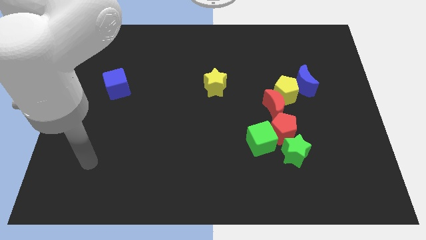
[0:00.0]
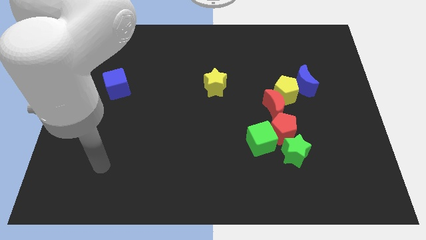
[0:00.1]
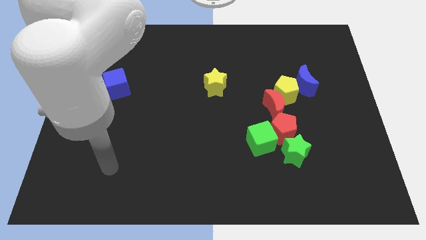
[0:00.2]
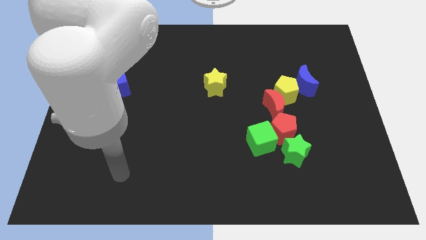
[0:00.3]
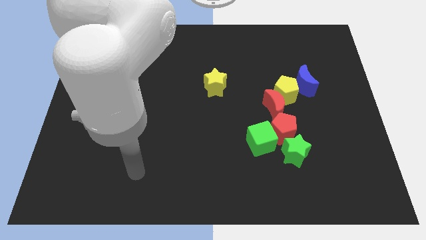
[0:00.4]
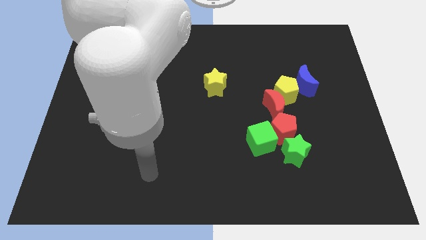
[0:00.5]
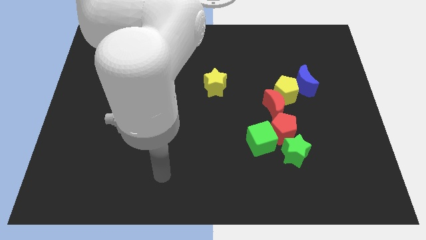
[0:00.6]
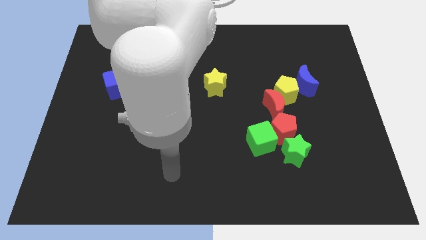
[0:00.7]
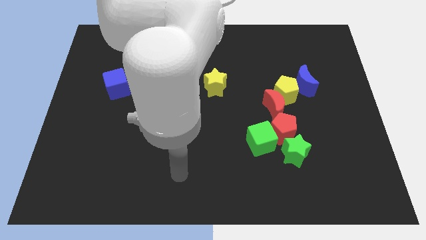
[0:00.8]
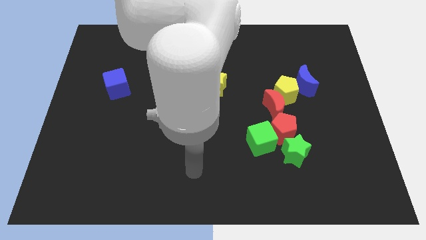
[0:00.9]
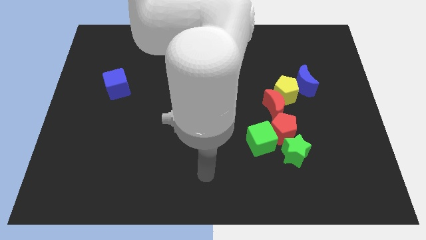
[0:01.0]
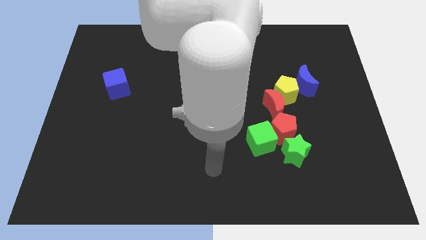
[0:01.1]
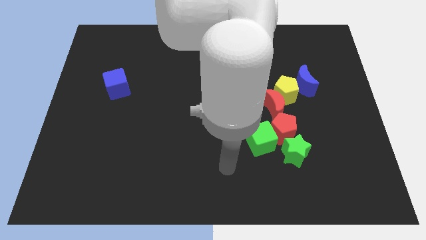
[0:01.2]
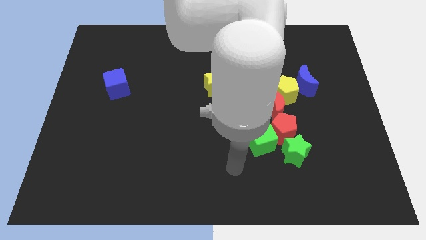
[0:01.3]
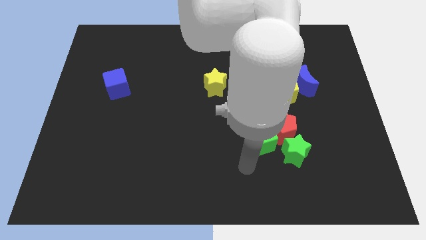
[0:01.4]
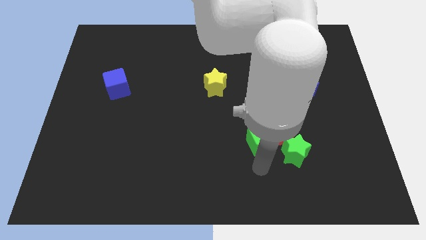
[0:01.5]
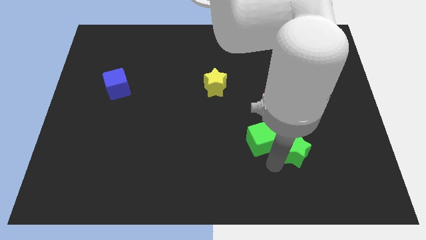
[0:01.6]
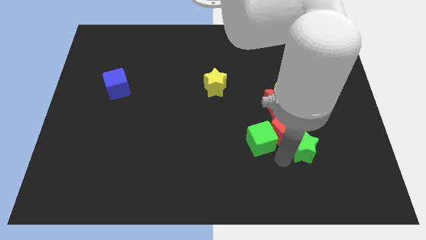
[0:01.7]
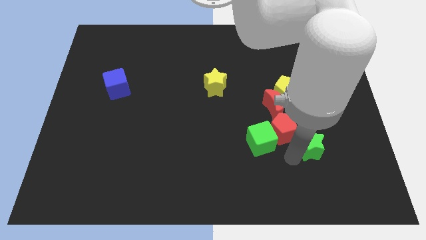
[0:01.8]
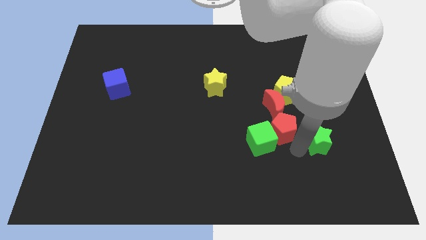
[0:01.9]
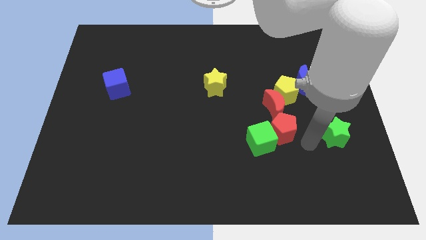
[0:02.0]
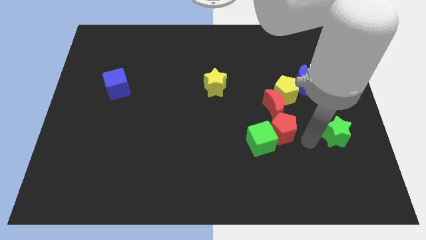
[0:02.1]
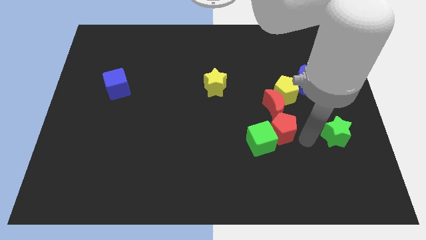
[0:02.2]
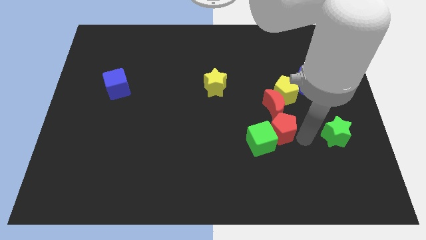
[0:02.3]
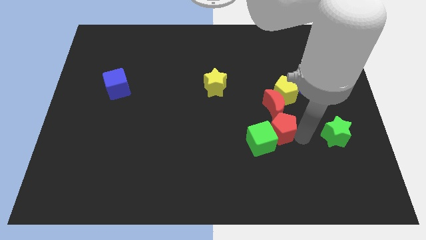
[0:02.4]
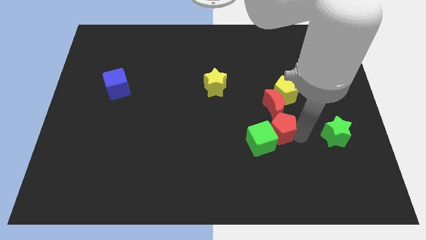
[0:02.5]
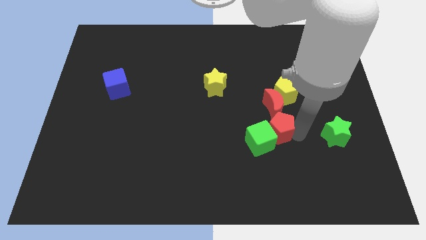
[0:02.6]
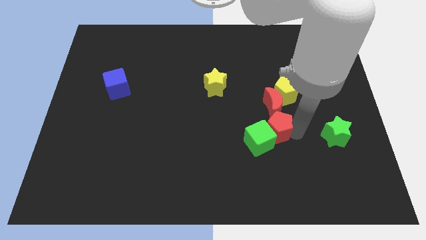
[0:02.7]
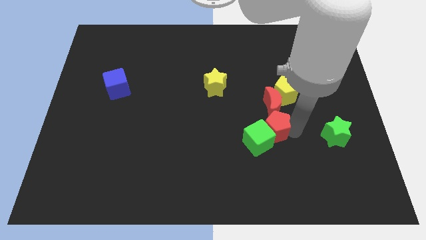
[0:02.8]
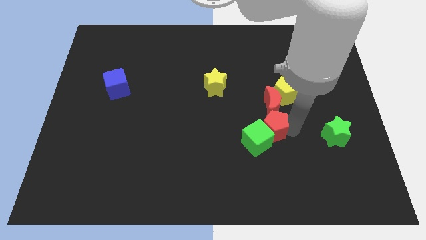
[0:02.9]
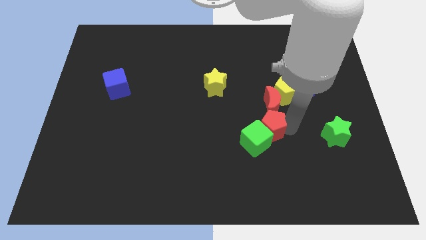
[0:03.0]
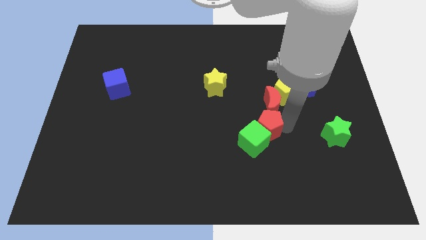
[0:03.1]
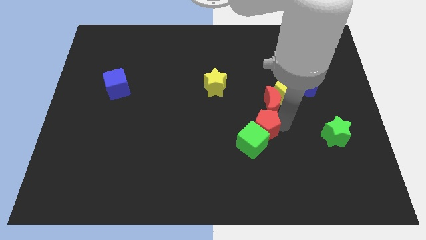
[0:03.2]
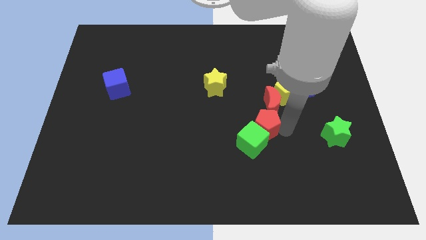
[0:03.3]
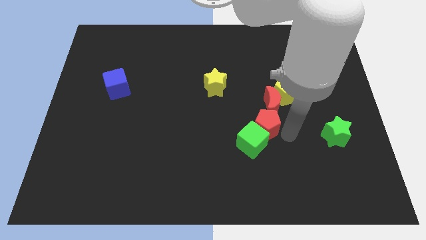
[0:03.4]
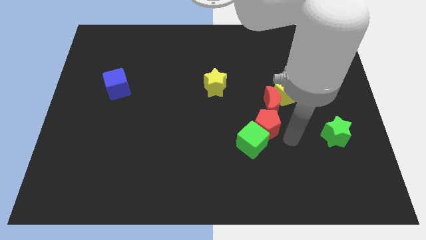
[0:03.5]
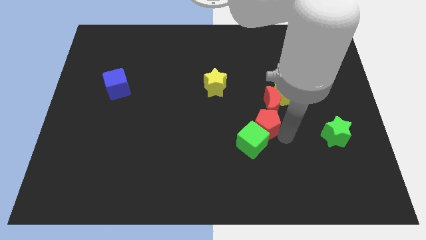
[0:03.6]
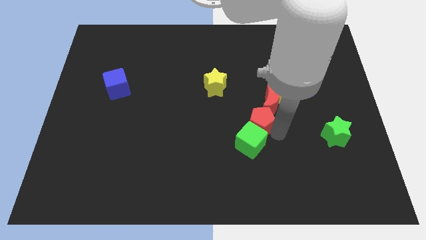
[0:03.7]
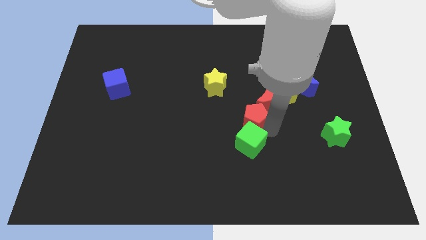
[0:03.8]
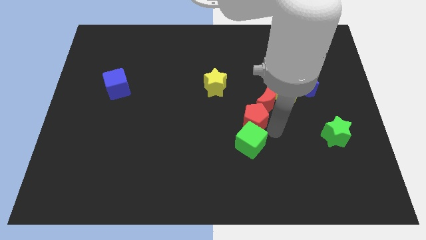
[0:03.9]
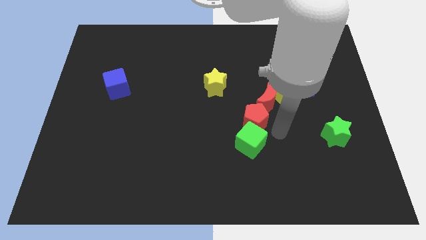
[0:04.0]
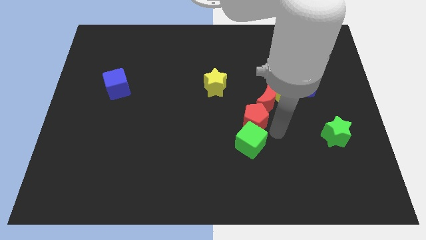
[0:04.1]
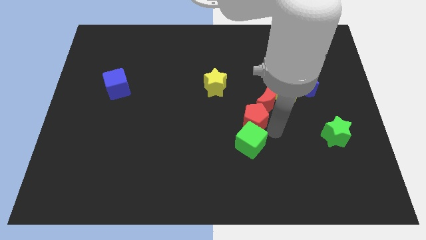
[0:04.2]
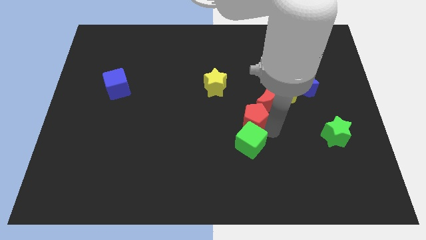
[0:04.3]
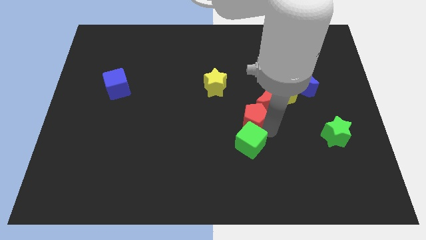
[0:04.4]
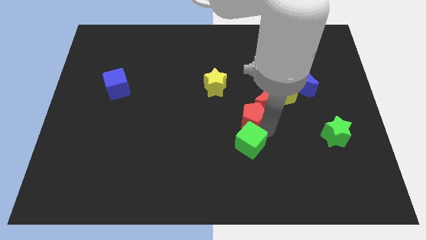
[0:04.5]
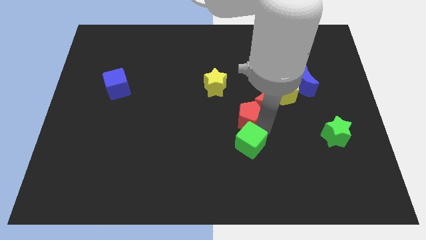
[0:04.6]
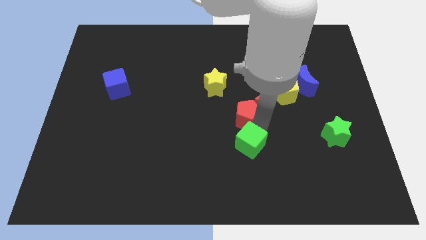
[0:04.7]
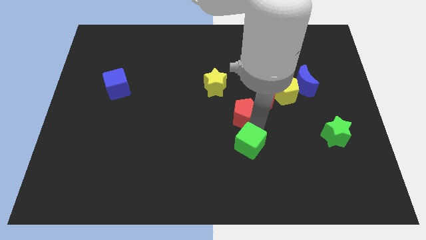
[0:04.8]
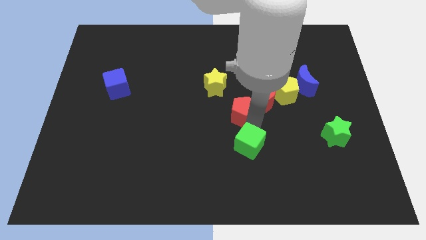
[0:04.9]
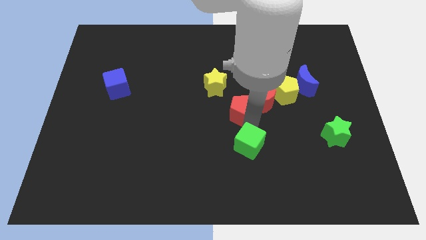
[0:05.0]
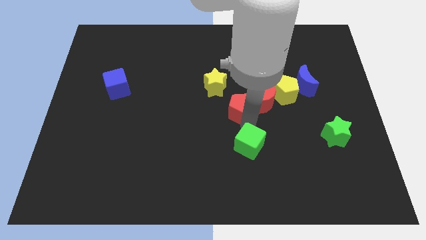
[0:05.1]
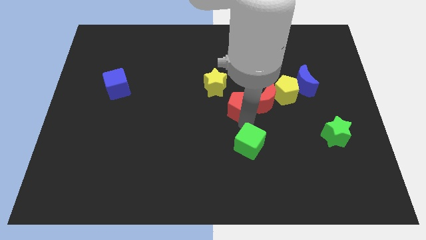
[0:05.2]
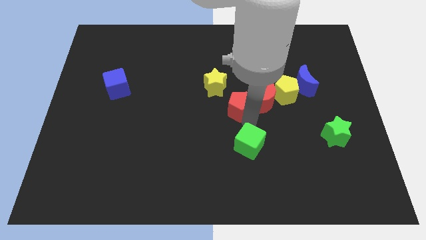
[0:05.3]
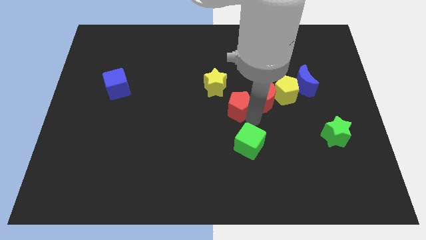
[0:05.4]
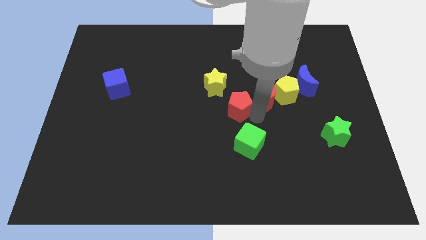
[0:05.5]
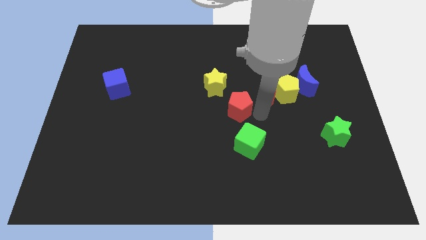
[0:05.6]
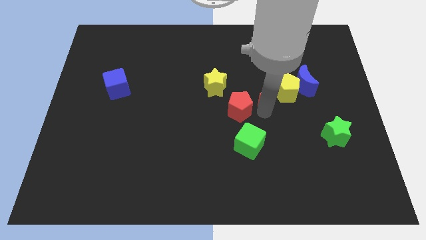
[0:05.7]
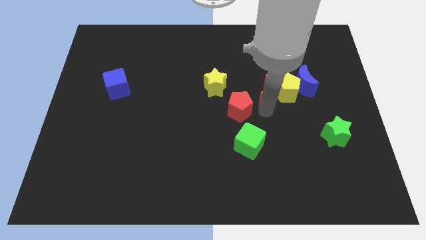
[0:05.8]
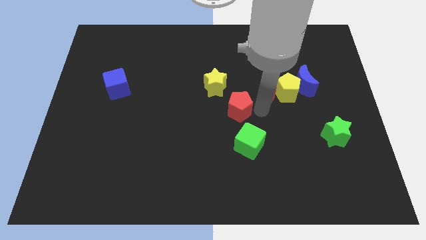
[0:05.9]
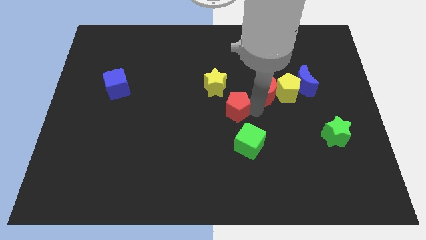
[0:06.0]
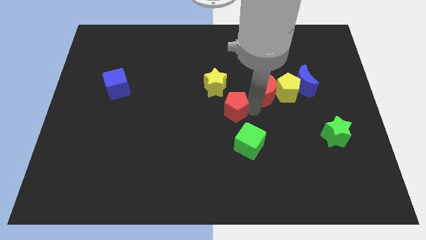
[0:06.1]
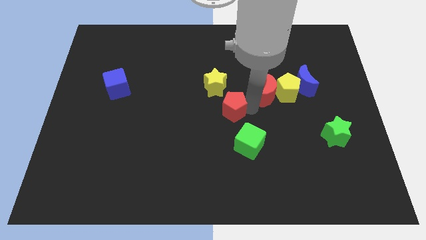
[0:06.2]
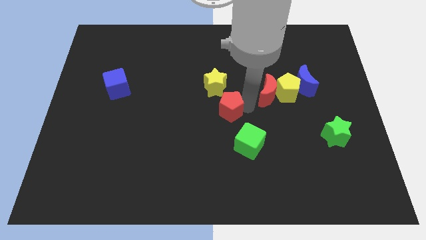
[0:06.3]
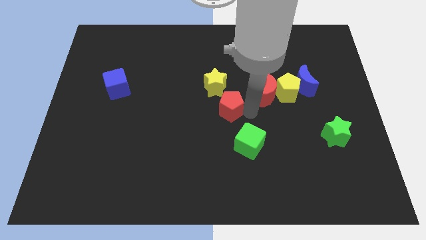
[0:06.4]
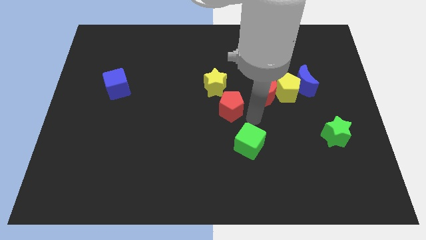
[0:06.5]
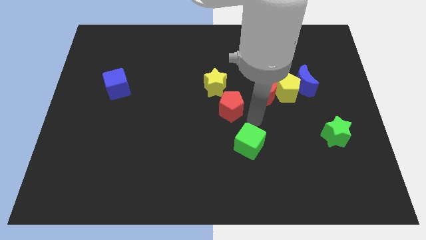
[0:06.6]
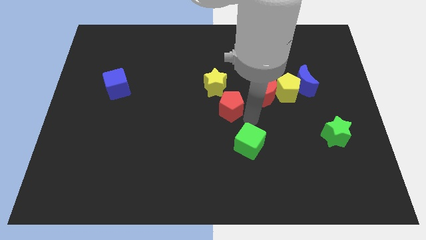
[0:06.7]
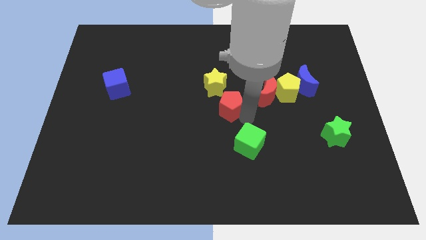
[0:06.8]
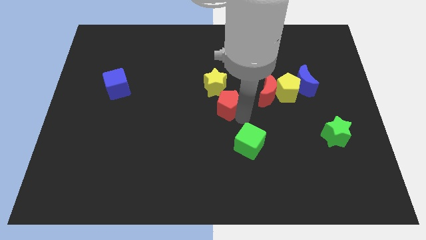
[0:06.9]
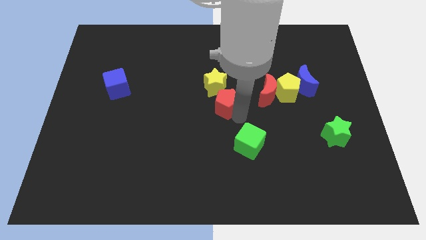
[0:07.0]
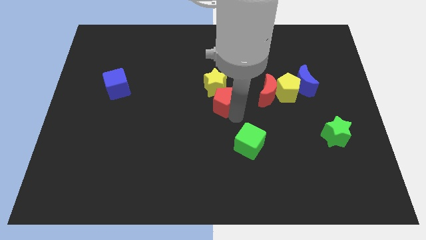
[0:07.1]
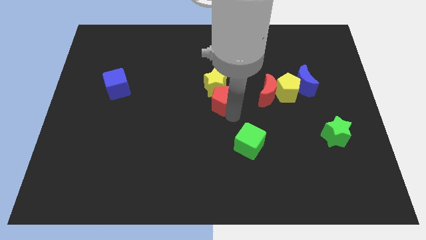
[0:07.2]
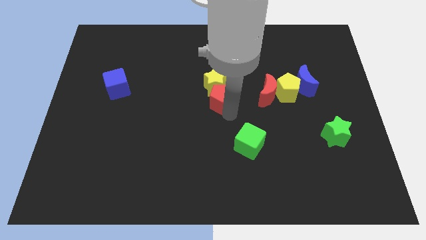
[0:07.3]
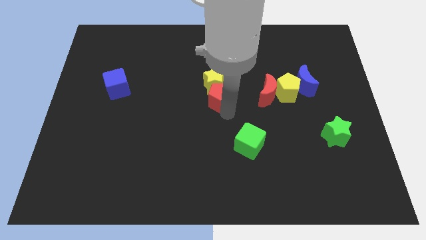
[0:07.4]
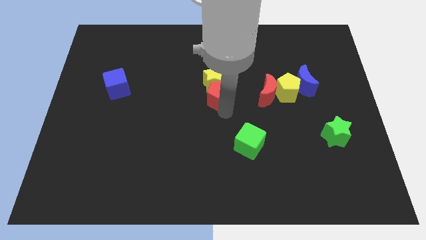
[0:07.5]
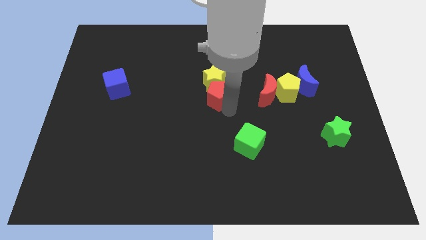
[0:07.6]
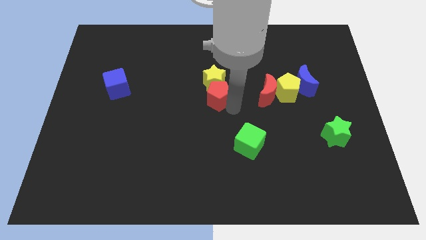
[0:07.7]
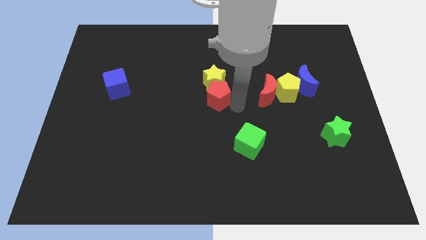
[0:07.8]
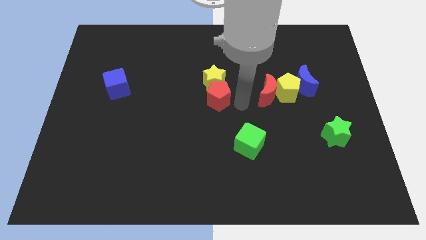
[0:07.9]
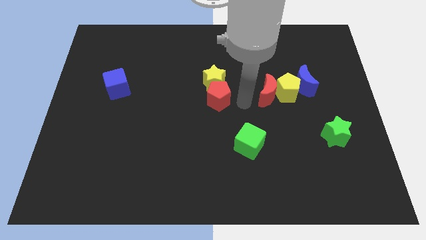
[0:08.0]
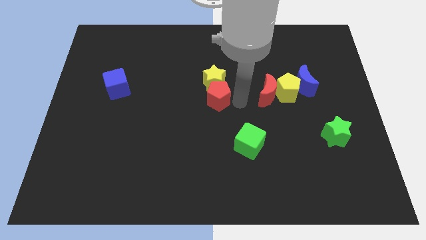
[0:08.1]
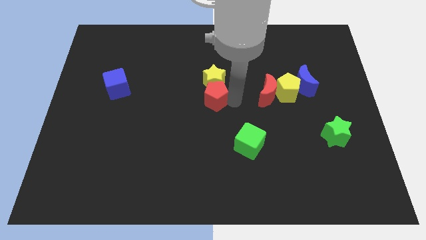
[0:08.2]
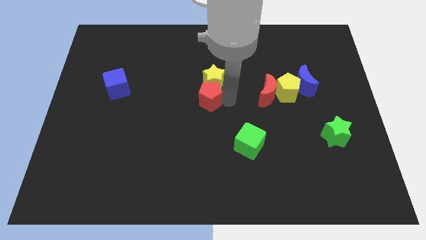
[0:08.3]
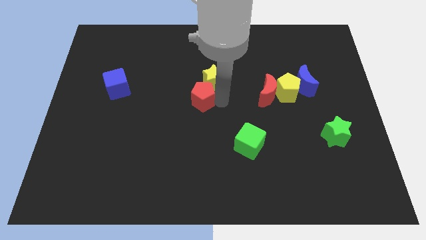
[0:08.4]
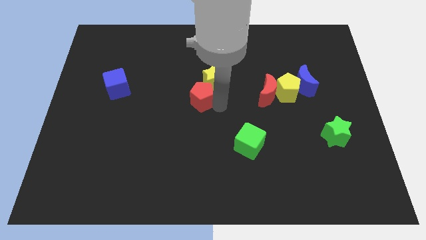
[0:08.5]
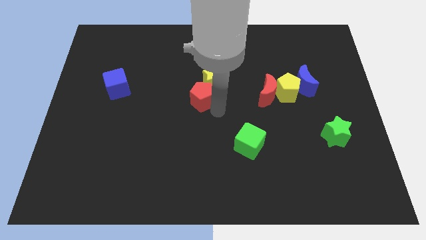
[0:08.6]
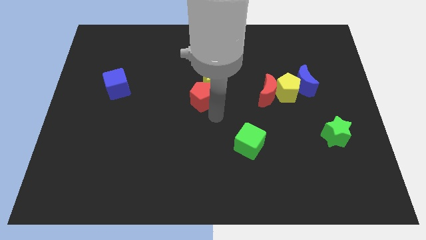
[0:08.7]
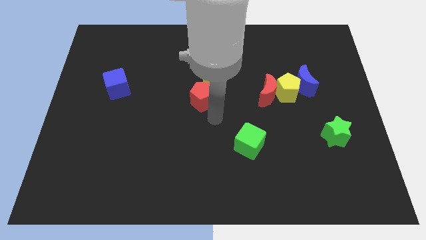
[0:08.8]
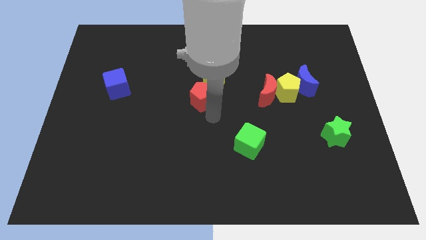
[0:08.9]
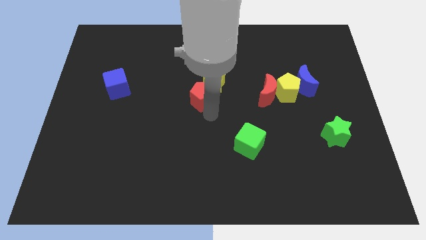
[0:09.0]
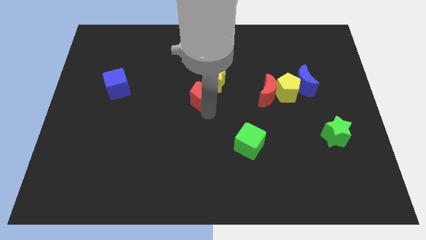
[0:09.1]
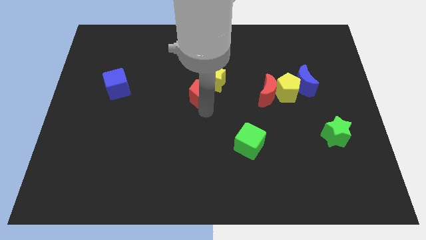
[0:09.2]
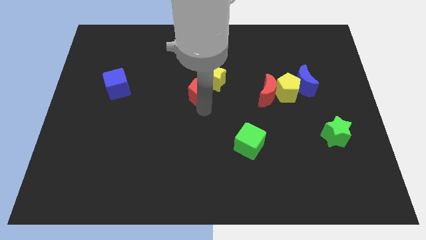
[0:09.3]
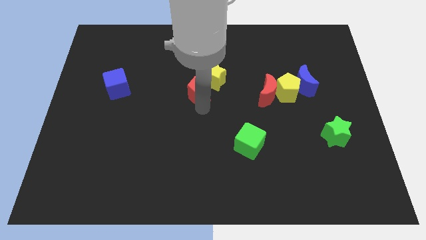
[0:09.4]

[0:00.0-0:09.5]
move the red pentagon diagonally upwards and to the left
